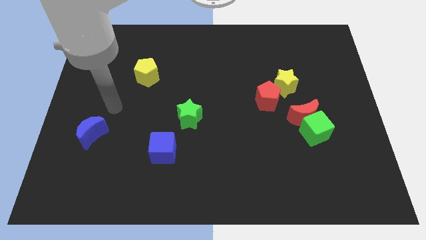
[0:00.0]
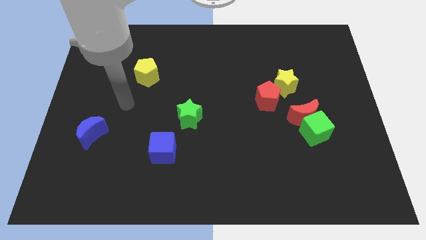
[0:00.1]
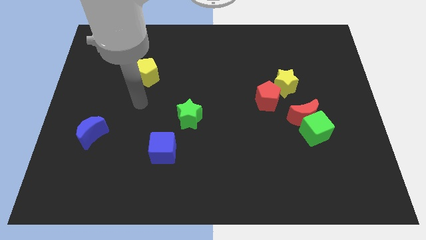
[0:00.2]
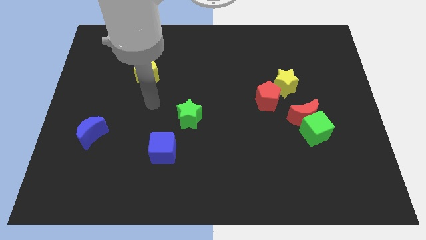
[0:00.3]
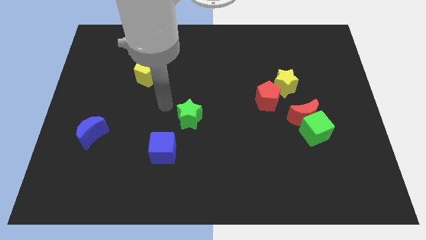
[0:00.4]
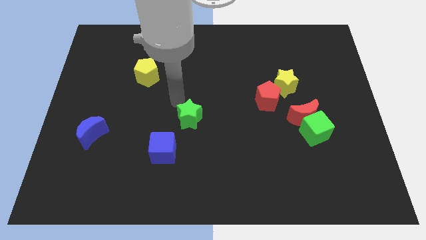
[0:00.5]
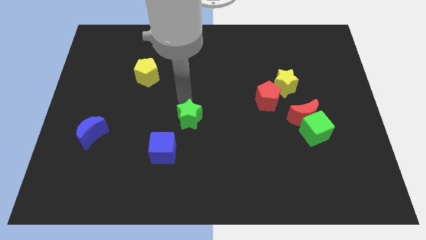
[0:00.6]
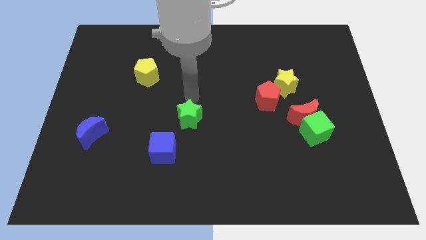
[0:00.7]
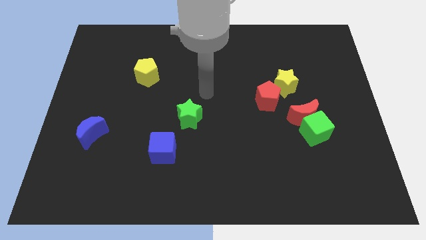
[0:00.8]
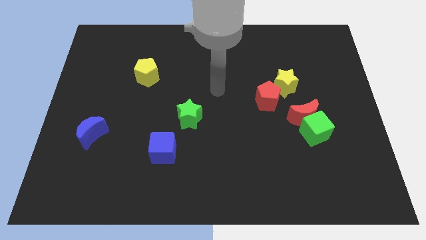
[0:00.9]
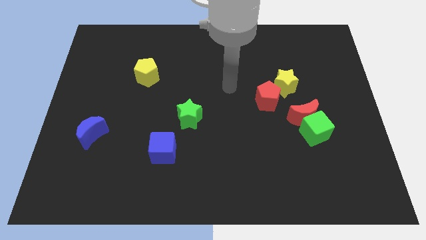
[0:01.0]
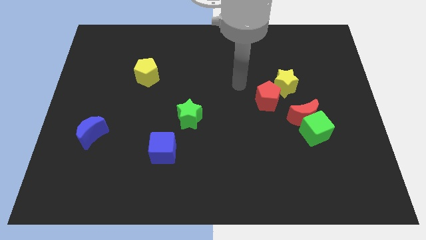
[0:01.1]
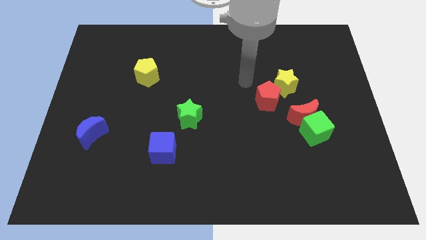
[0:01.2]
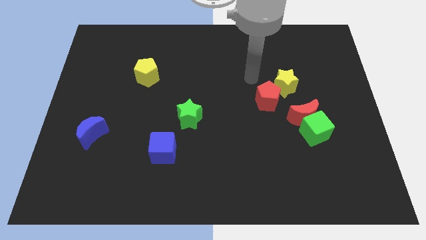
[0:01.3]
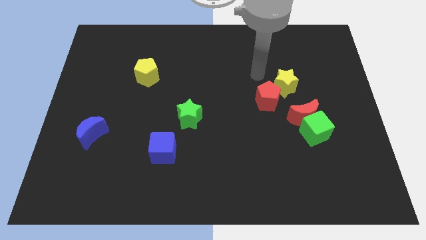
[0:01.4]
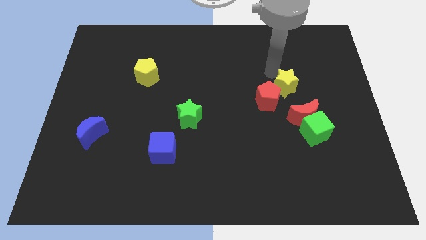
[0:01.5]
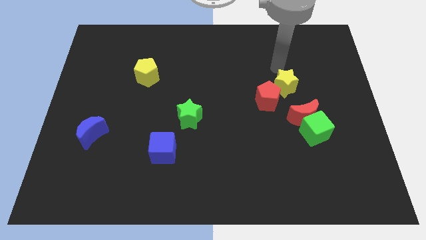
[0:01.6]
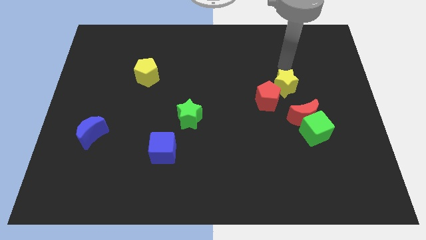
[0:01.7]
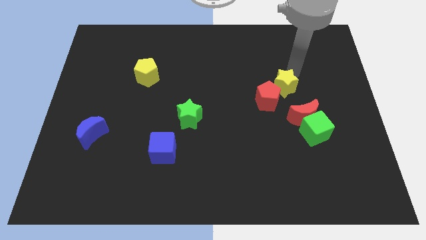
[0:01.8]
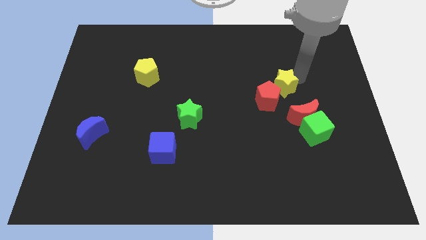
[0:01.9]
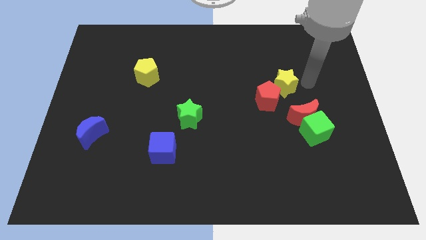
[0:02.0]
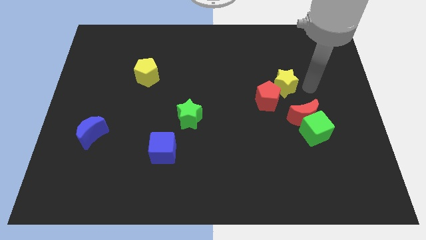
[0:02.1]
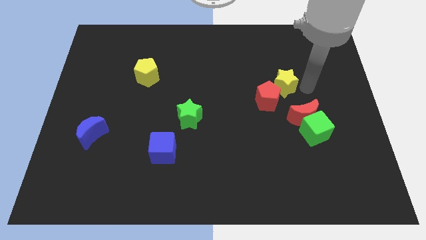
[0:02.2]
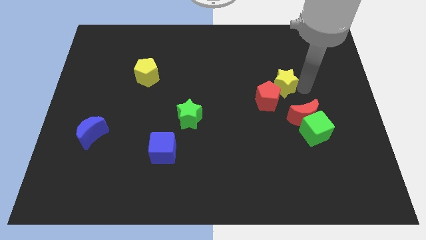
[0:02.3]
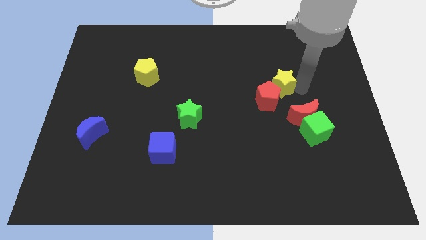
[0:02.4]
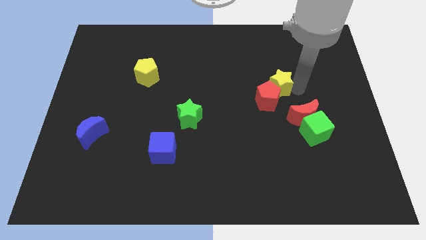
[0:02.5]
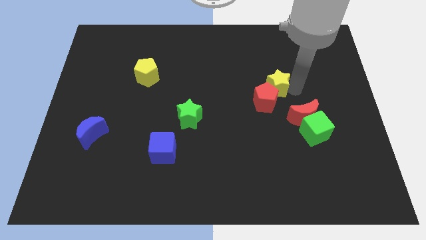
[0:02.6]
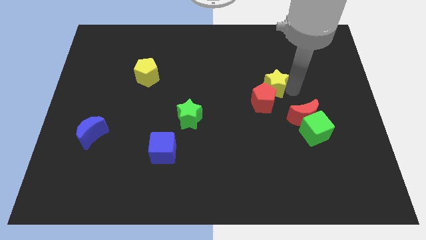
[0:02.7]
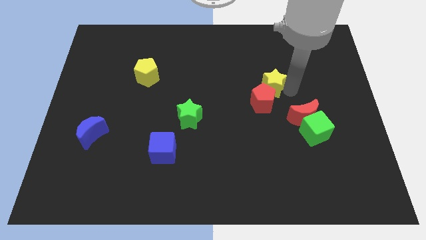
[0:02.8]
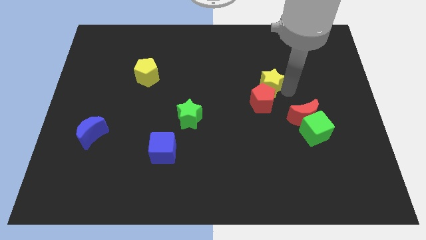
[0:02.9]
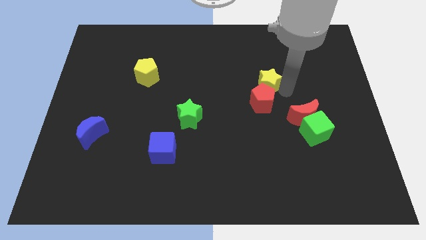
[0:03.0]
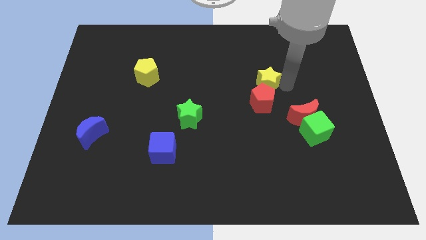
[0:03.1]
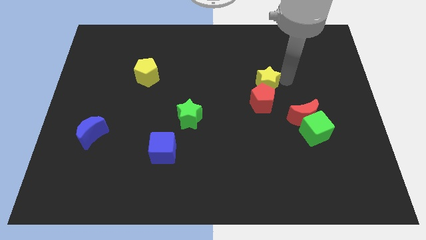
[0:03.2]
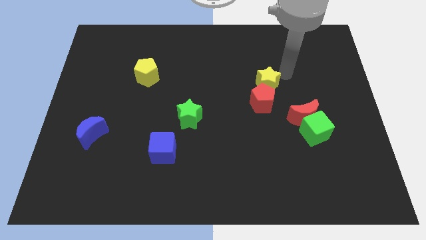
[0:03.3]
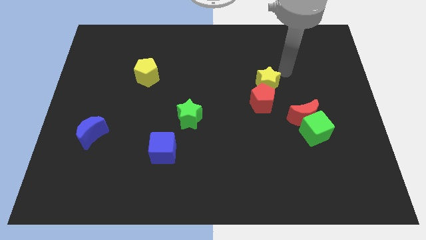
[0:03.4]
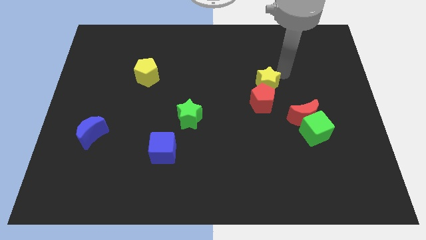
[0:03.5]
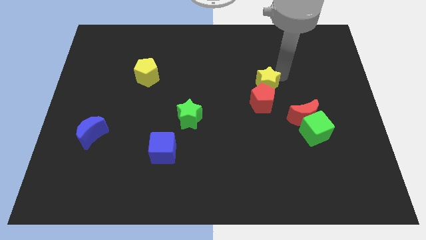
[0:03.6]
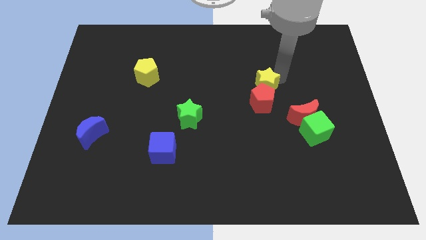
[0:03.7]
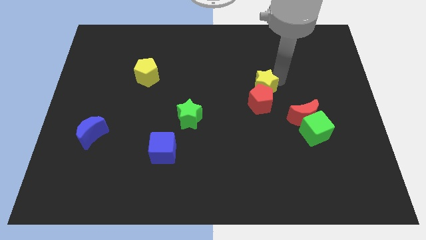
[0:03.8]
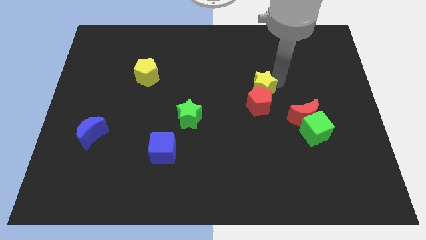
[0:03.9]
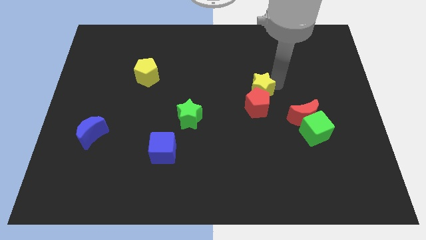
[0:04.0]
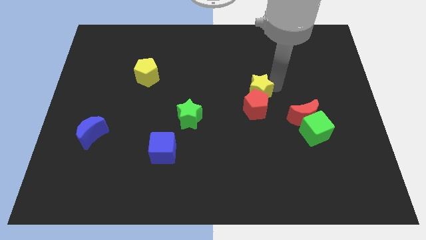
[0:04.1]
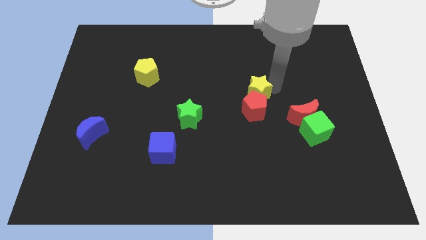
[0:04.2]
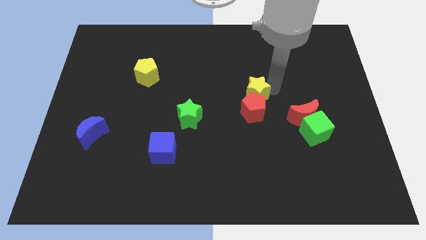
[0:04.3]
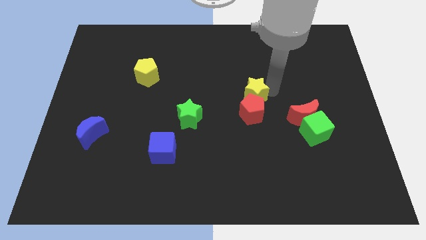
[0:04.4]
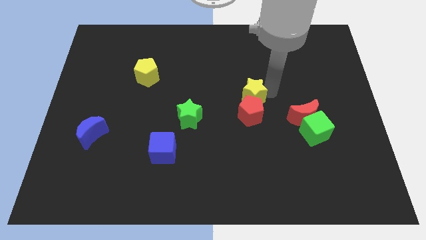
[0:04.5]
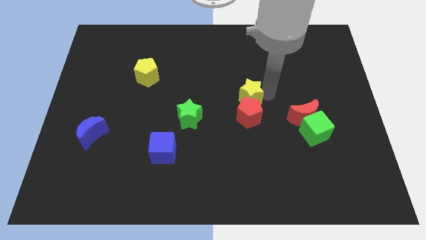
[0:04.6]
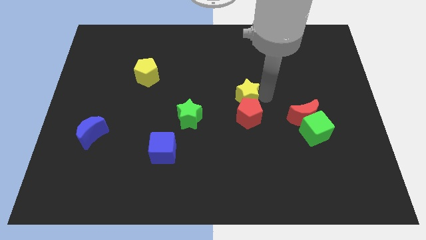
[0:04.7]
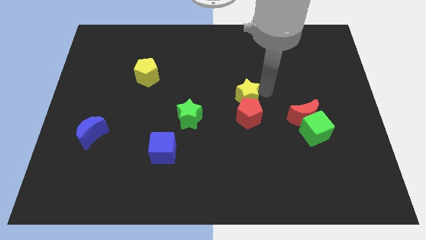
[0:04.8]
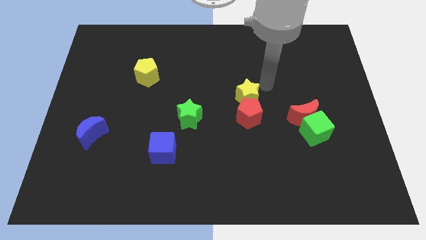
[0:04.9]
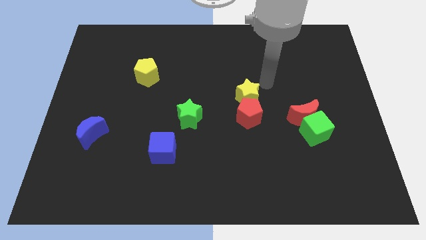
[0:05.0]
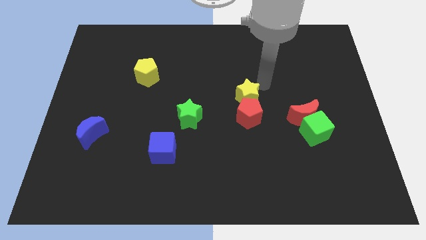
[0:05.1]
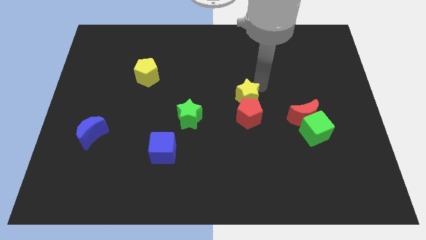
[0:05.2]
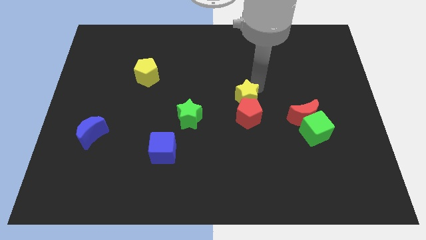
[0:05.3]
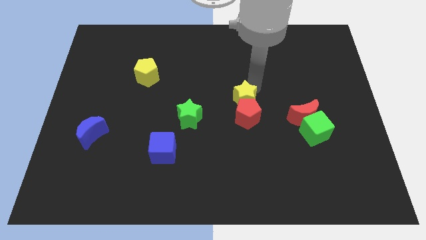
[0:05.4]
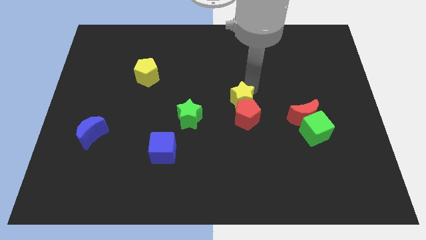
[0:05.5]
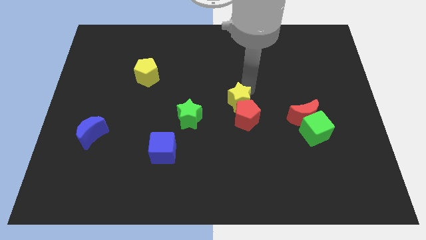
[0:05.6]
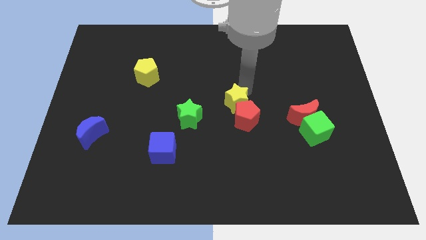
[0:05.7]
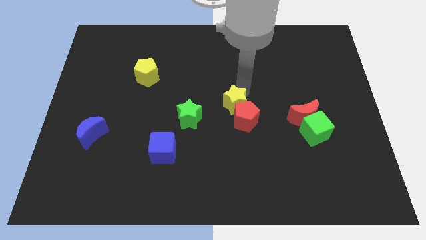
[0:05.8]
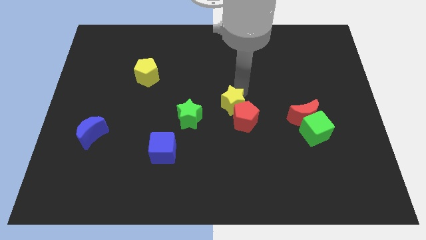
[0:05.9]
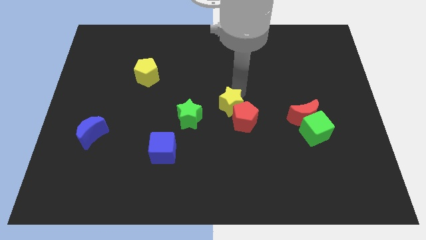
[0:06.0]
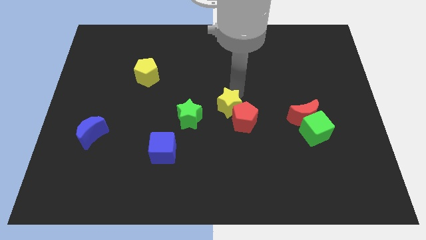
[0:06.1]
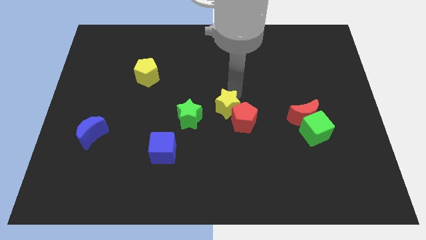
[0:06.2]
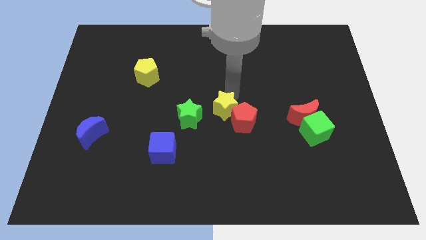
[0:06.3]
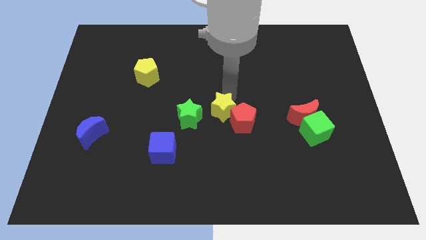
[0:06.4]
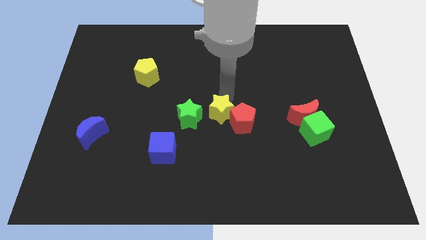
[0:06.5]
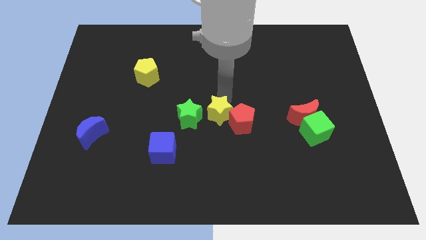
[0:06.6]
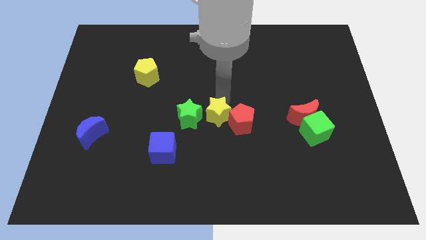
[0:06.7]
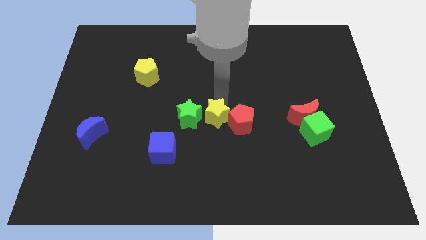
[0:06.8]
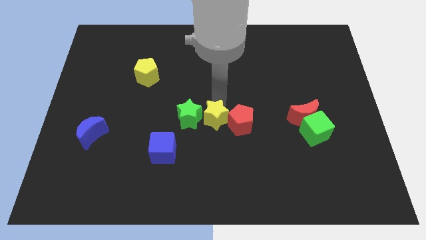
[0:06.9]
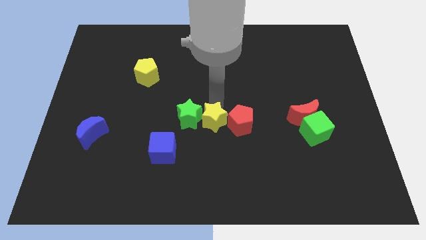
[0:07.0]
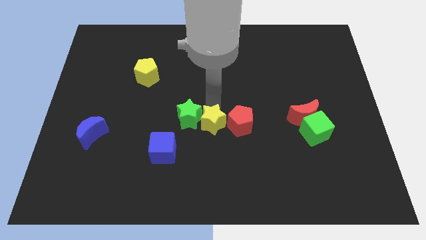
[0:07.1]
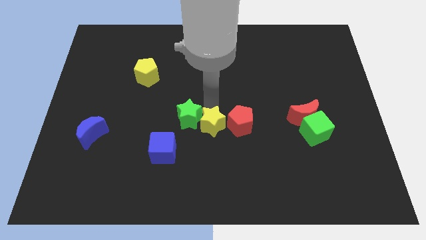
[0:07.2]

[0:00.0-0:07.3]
slide the yellow star diagonally down and left

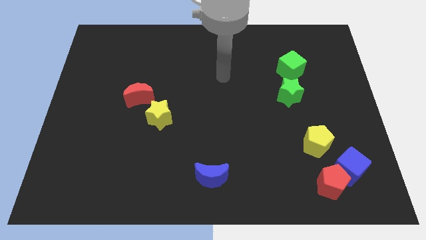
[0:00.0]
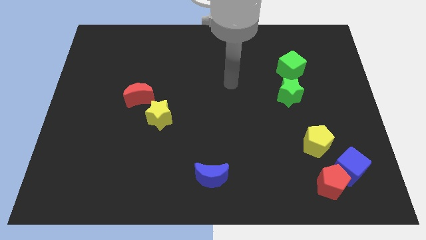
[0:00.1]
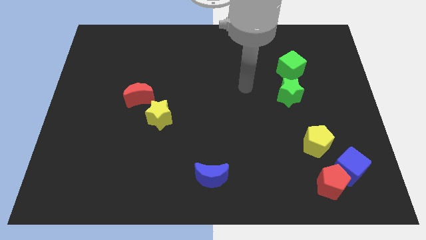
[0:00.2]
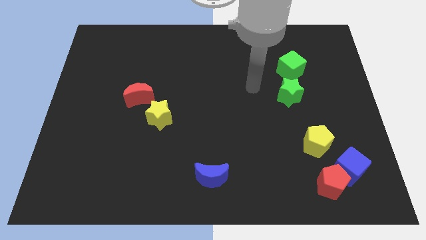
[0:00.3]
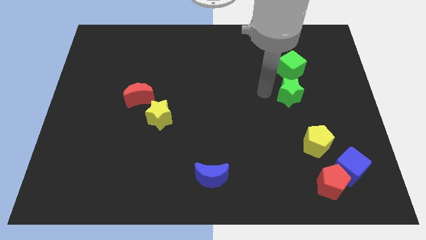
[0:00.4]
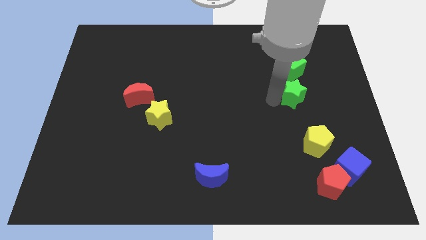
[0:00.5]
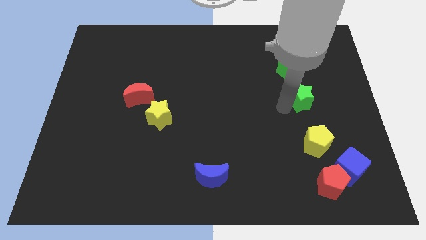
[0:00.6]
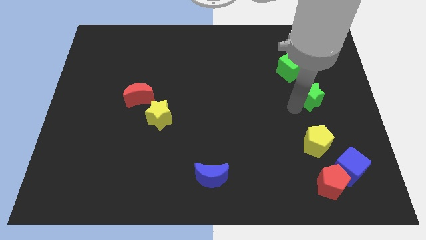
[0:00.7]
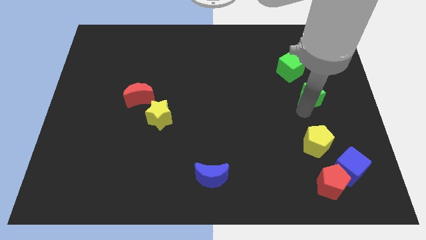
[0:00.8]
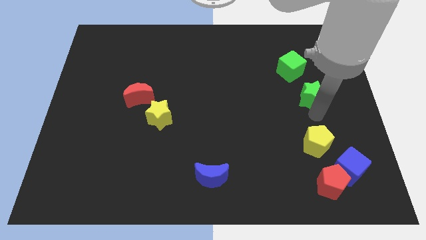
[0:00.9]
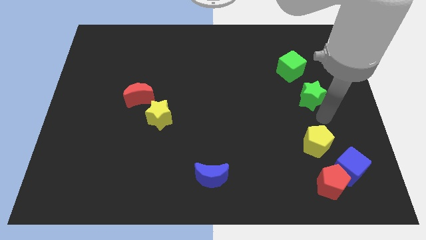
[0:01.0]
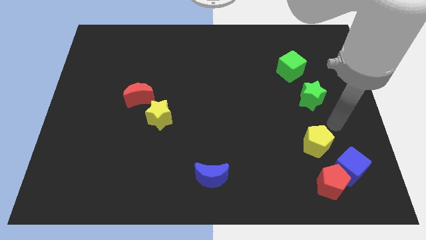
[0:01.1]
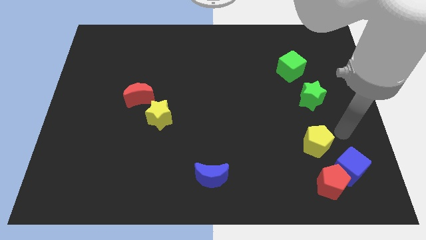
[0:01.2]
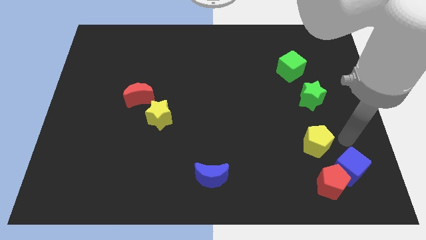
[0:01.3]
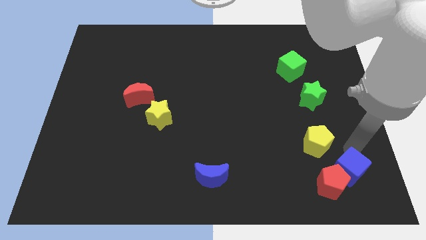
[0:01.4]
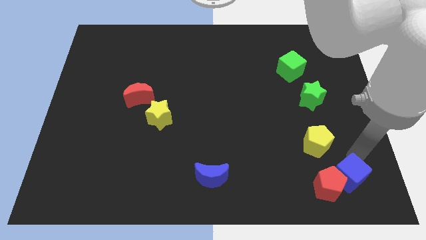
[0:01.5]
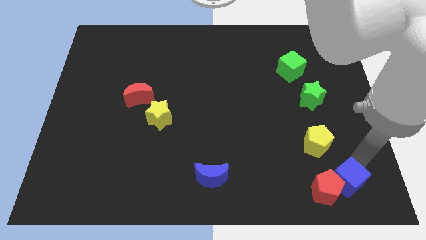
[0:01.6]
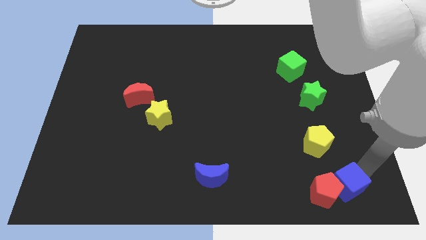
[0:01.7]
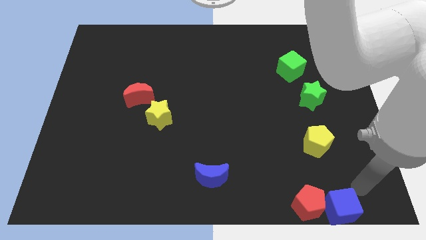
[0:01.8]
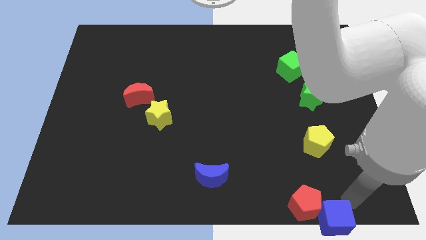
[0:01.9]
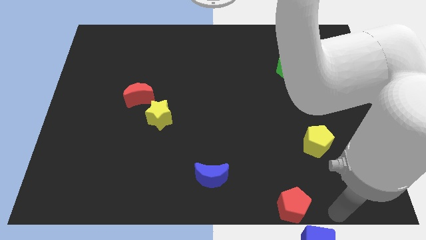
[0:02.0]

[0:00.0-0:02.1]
move the red pentagon somewhat left
